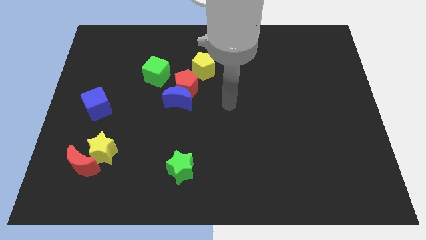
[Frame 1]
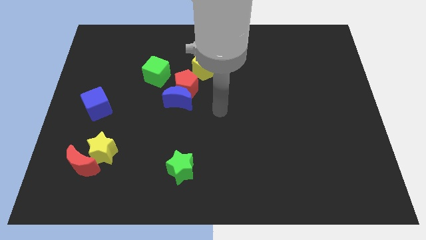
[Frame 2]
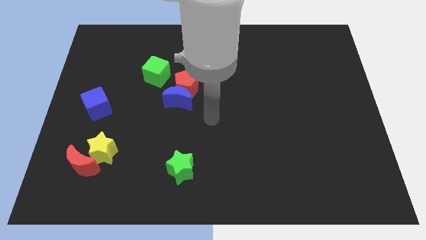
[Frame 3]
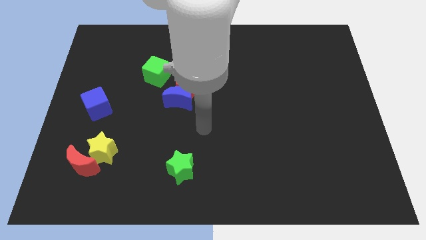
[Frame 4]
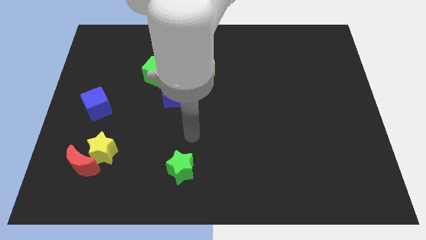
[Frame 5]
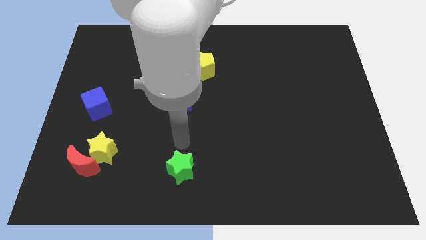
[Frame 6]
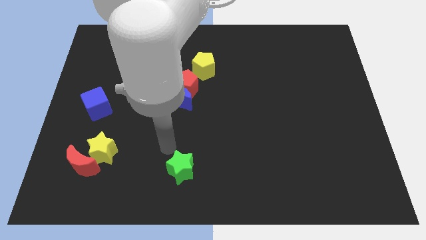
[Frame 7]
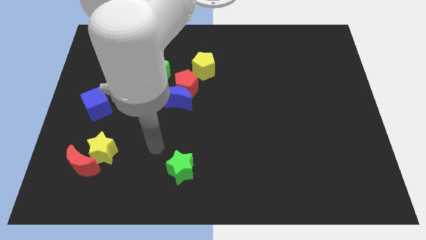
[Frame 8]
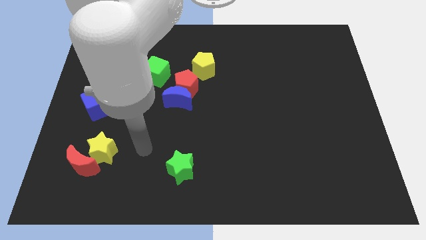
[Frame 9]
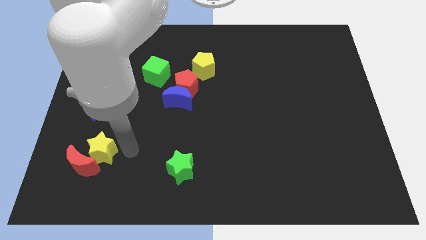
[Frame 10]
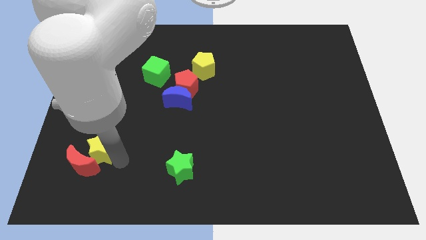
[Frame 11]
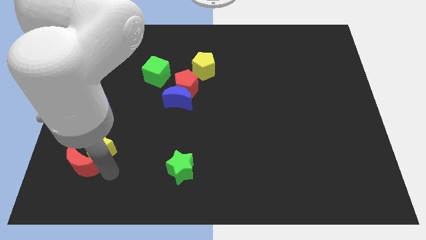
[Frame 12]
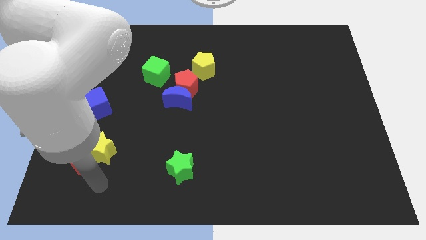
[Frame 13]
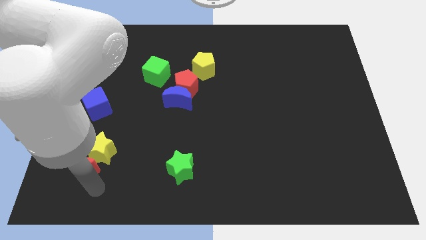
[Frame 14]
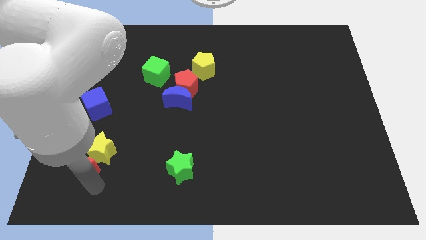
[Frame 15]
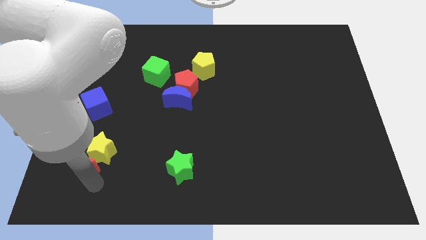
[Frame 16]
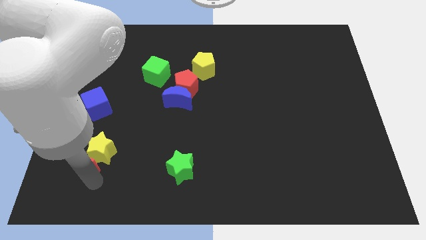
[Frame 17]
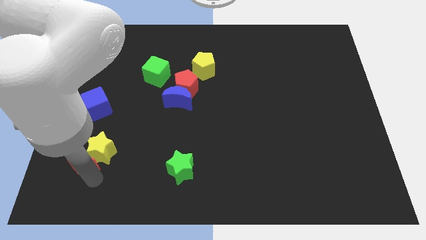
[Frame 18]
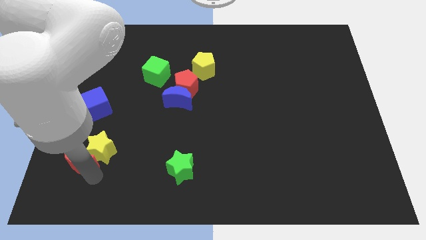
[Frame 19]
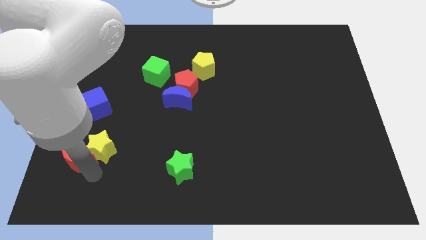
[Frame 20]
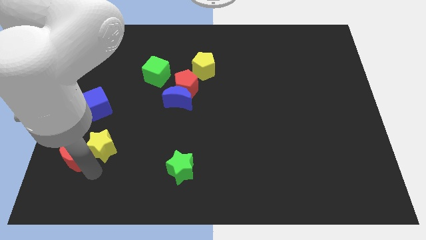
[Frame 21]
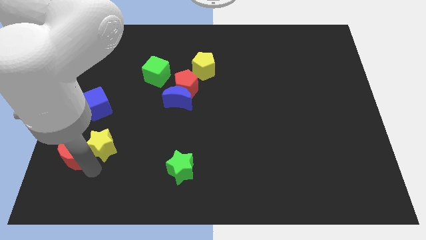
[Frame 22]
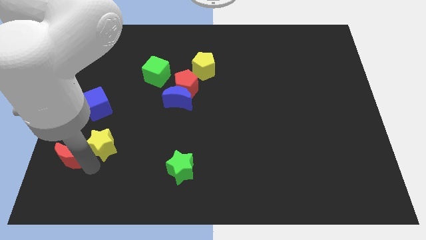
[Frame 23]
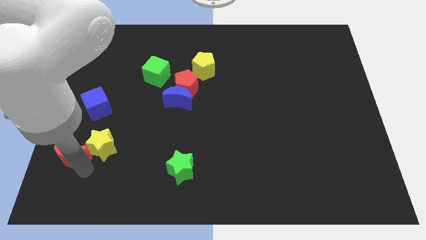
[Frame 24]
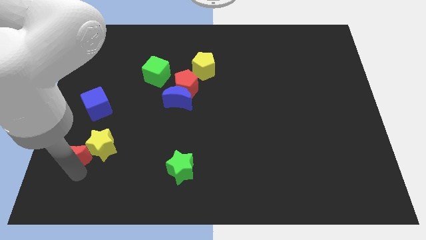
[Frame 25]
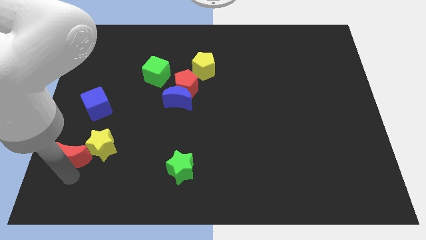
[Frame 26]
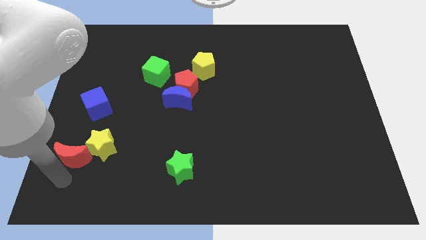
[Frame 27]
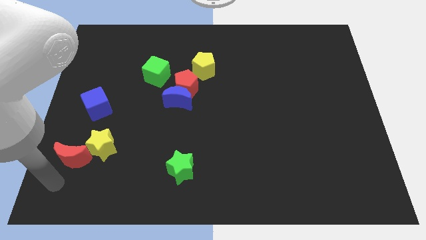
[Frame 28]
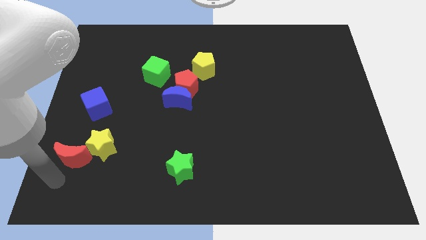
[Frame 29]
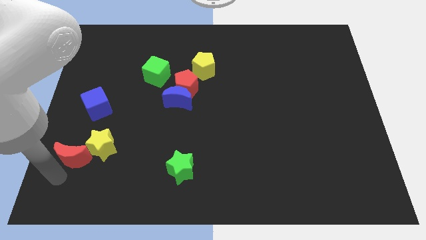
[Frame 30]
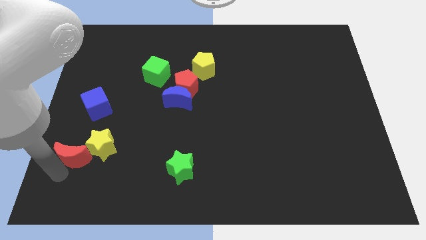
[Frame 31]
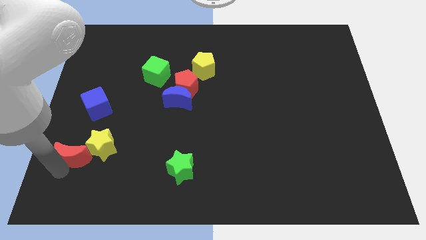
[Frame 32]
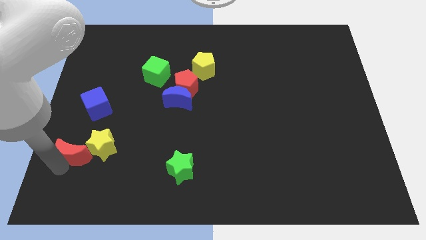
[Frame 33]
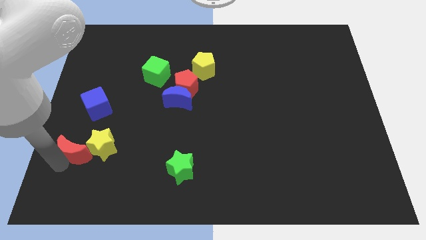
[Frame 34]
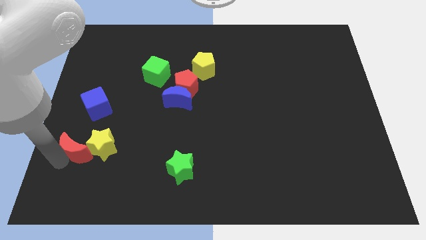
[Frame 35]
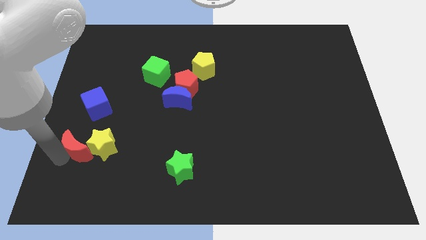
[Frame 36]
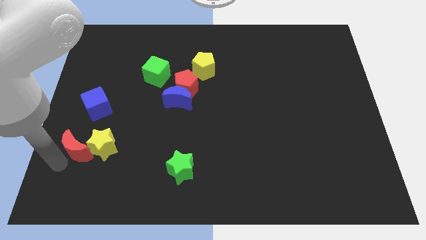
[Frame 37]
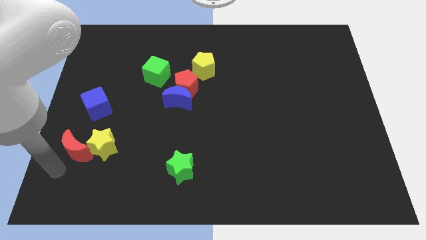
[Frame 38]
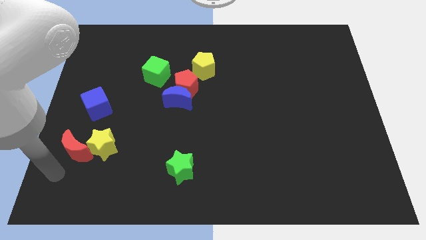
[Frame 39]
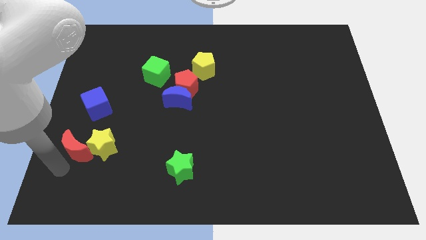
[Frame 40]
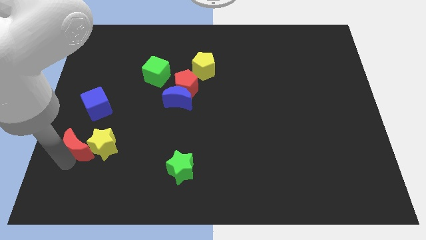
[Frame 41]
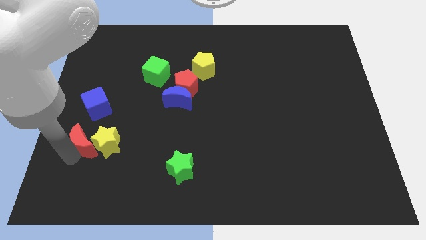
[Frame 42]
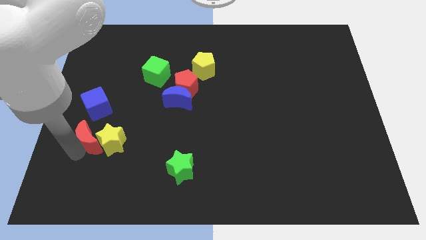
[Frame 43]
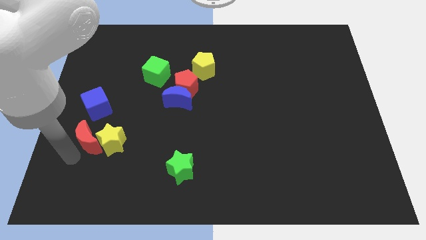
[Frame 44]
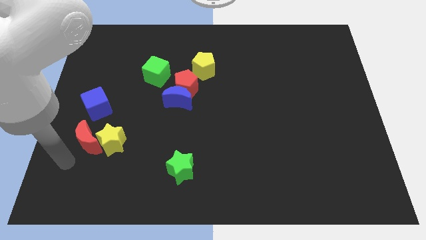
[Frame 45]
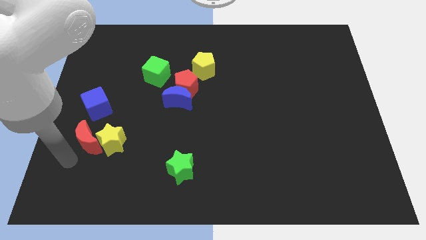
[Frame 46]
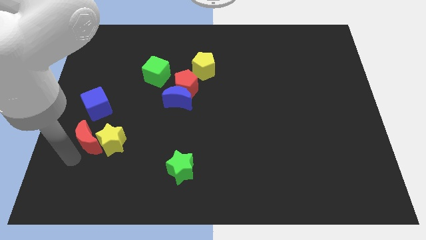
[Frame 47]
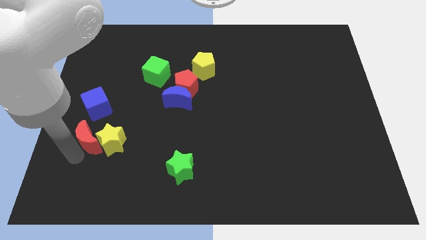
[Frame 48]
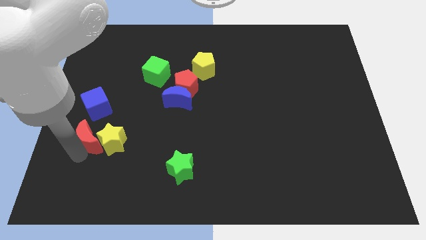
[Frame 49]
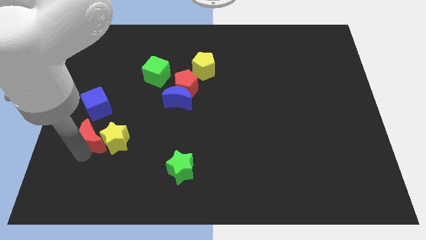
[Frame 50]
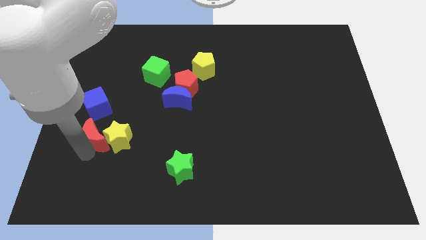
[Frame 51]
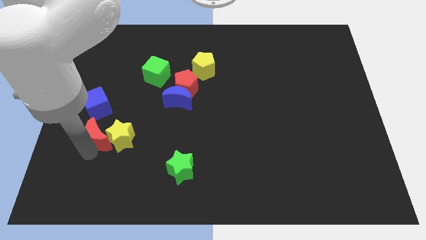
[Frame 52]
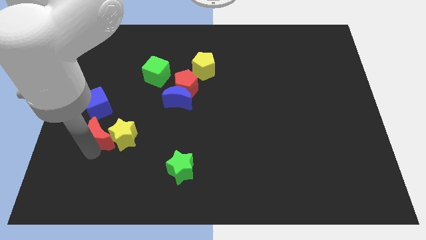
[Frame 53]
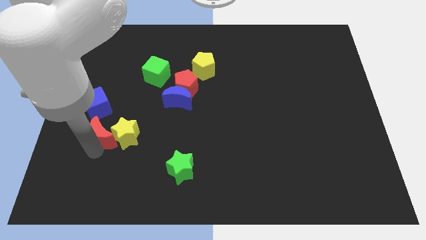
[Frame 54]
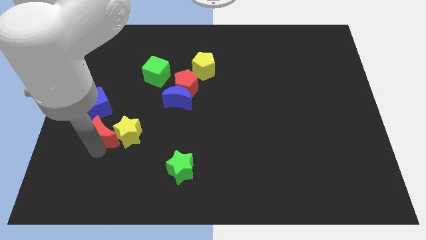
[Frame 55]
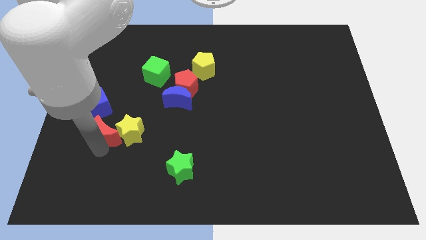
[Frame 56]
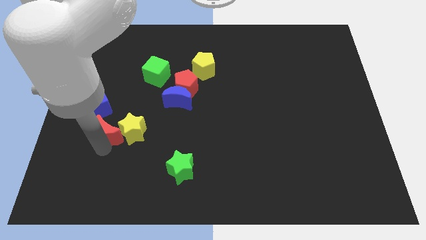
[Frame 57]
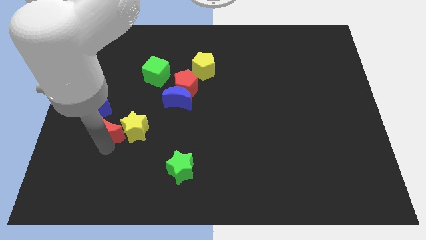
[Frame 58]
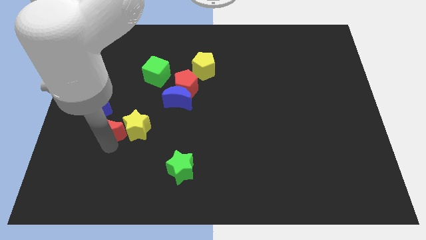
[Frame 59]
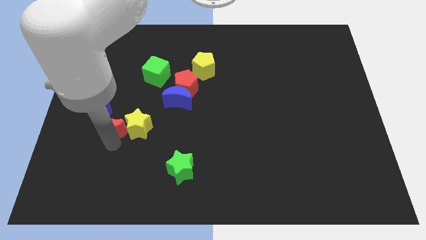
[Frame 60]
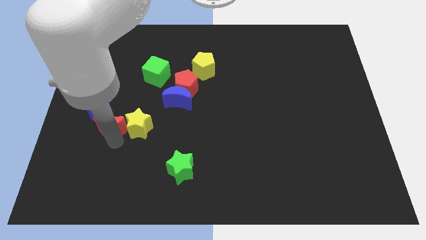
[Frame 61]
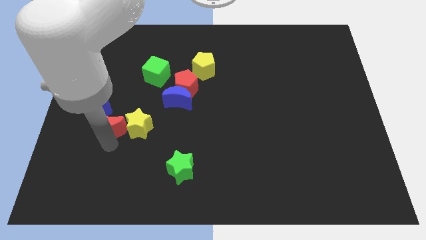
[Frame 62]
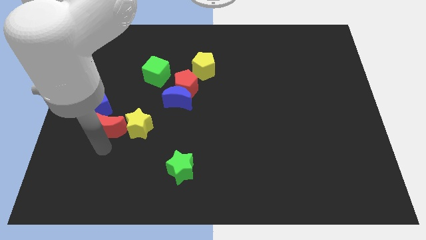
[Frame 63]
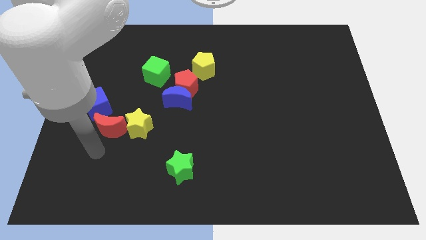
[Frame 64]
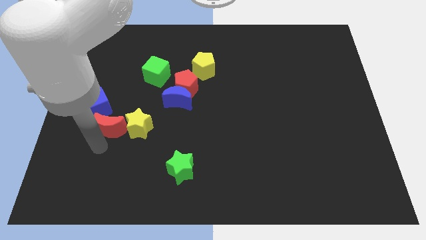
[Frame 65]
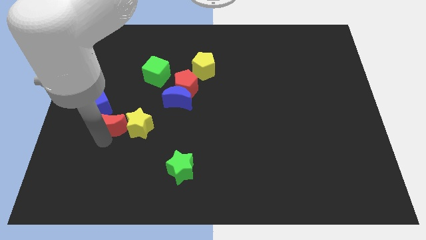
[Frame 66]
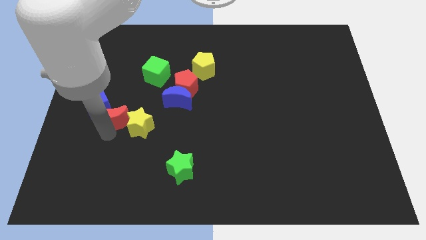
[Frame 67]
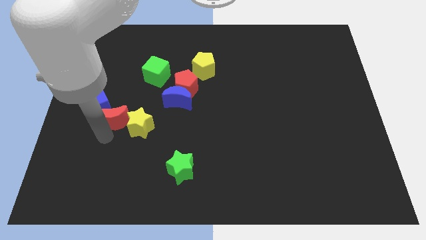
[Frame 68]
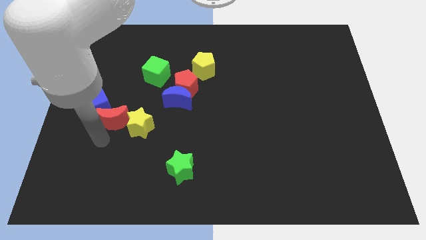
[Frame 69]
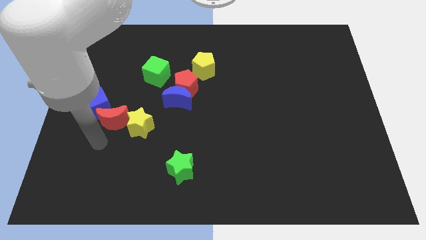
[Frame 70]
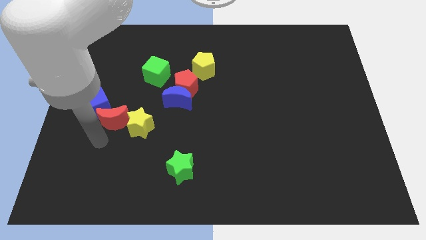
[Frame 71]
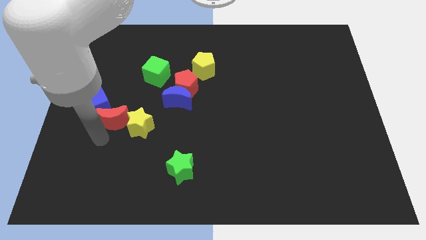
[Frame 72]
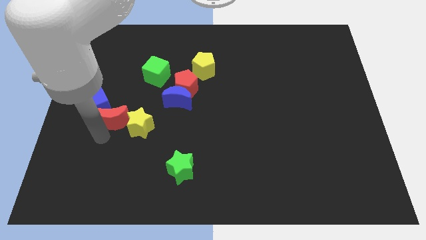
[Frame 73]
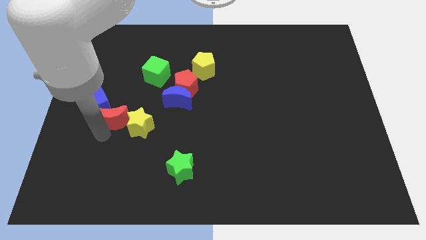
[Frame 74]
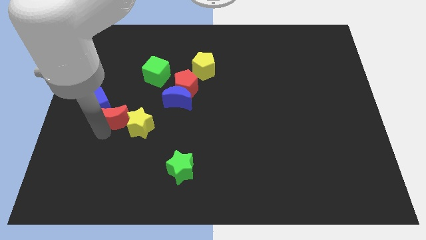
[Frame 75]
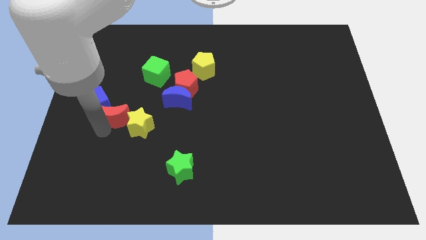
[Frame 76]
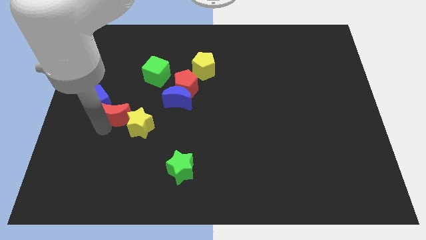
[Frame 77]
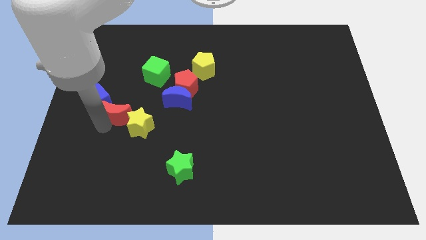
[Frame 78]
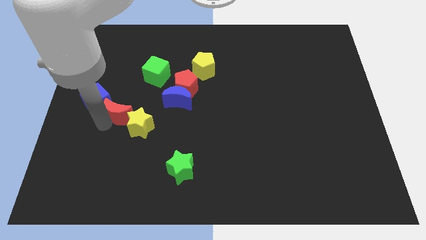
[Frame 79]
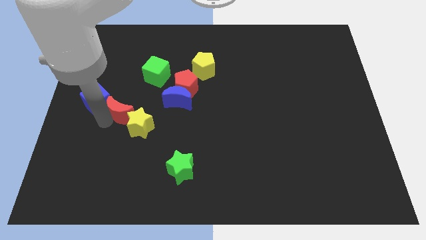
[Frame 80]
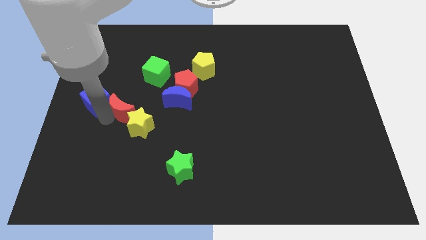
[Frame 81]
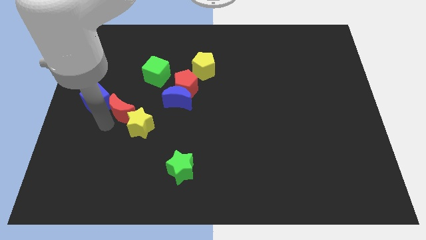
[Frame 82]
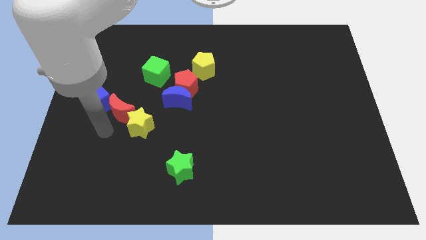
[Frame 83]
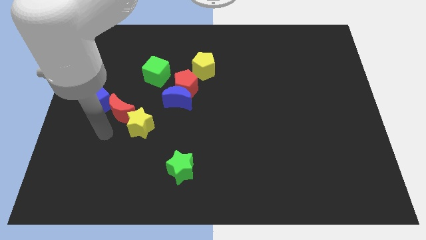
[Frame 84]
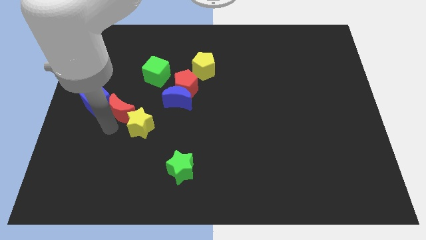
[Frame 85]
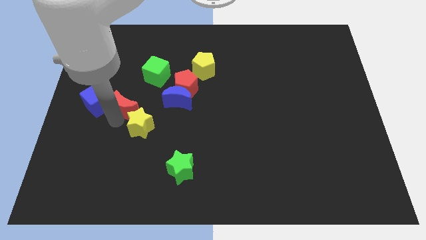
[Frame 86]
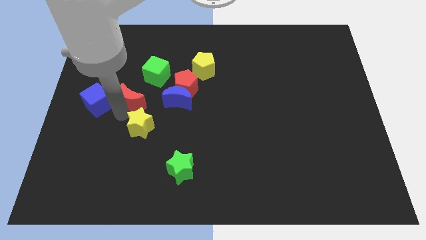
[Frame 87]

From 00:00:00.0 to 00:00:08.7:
slide the red moon to the left side of the red pentagon
